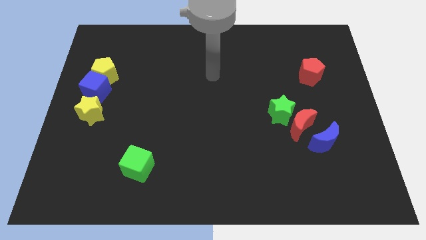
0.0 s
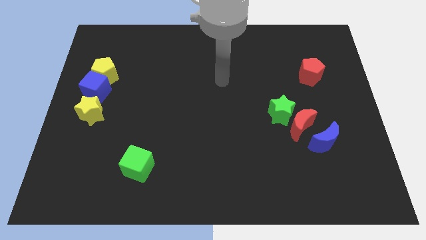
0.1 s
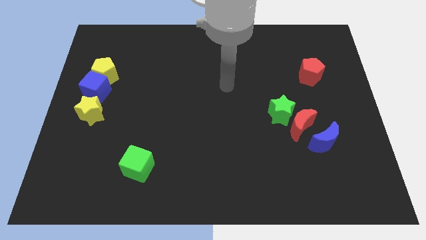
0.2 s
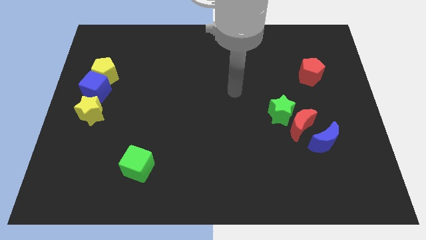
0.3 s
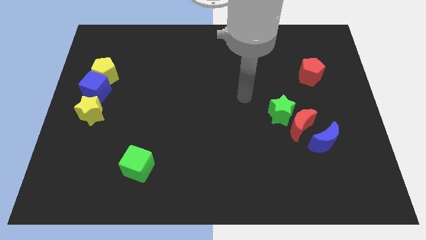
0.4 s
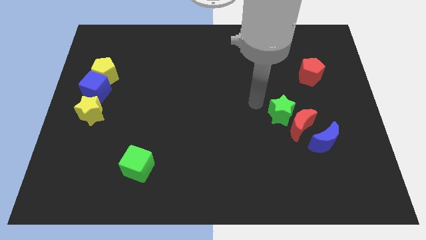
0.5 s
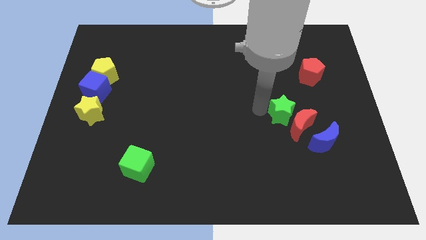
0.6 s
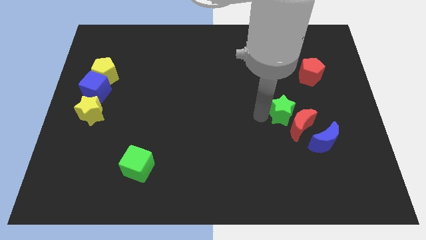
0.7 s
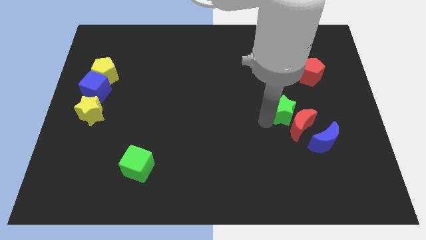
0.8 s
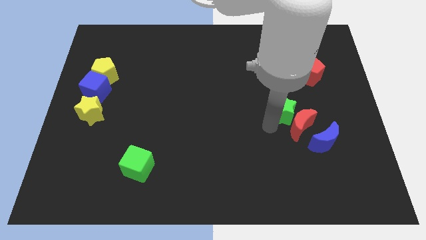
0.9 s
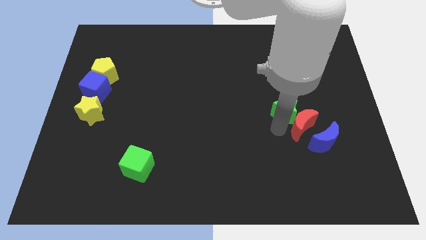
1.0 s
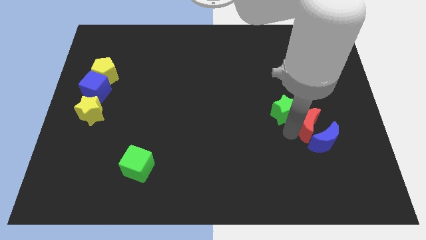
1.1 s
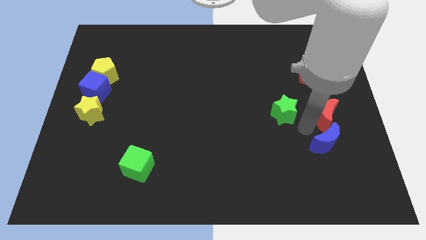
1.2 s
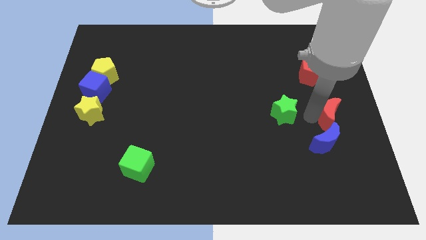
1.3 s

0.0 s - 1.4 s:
separate the green star from the red moon

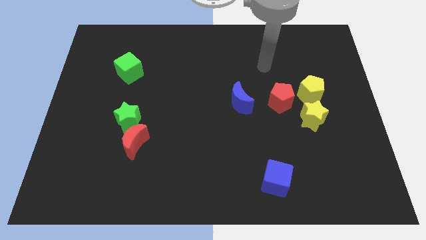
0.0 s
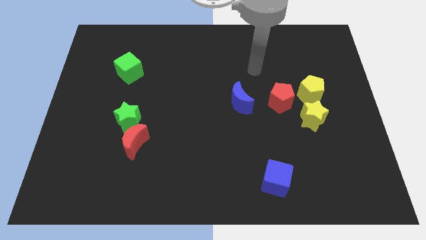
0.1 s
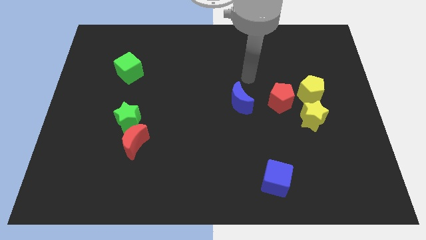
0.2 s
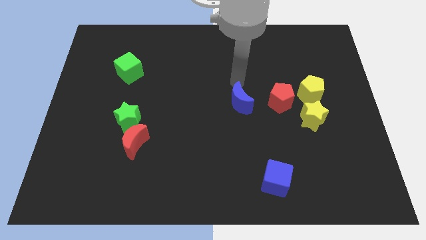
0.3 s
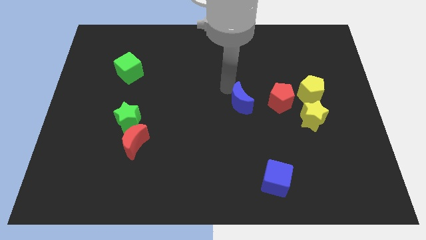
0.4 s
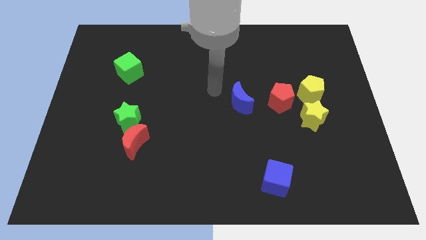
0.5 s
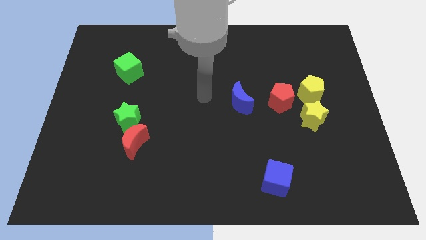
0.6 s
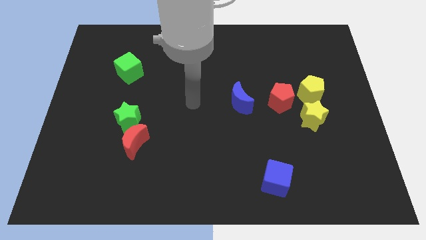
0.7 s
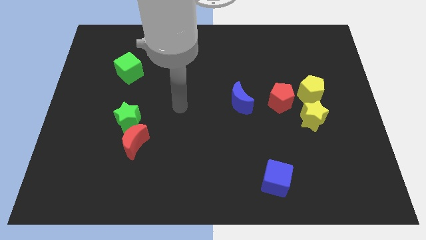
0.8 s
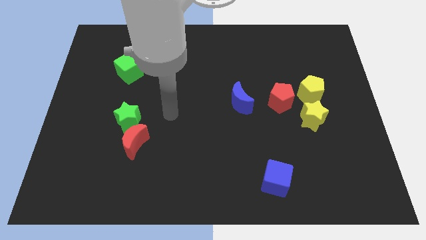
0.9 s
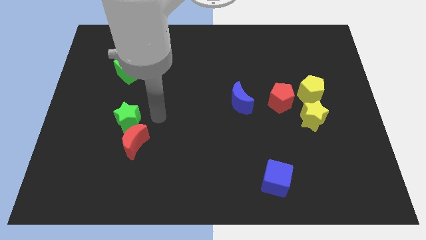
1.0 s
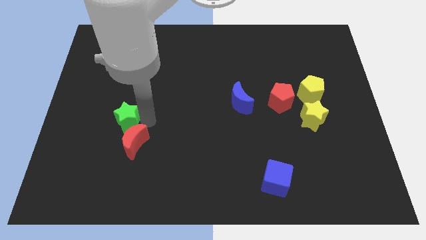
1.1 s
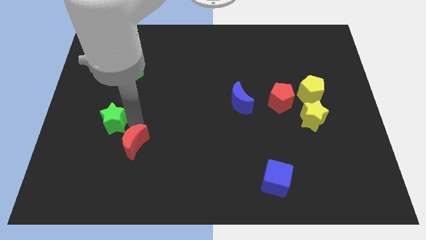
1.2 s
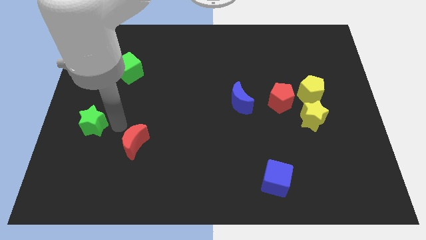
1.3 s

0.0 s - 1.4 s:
pull the red moon apart from the green star

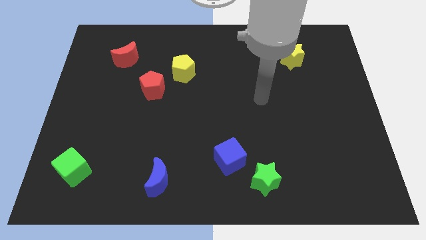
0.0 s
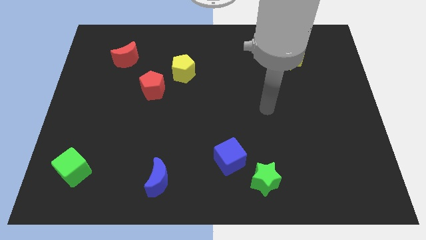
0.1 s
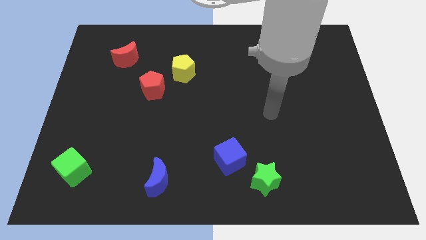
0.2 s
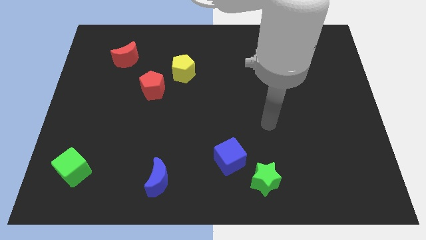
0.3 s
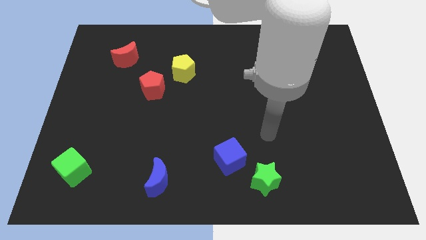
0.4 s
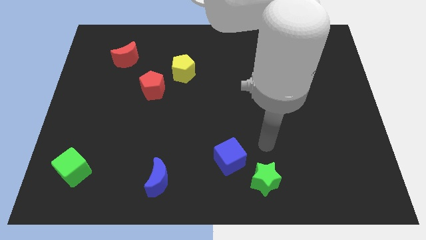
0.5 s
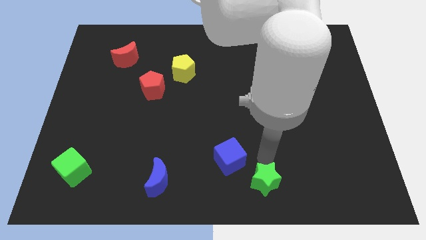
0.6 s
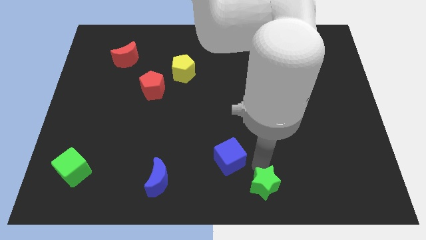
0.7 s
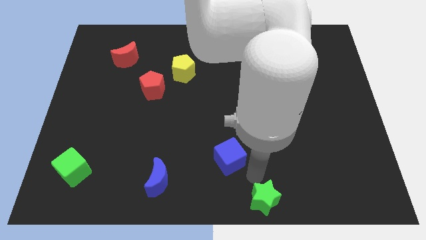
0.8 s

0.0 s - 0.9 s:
move the blue cube away from the green star

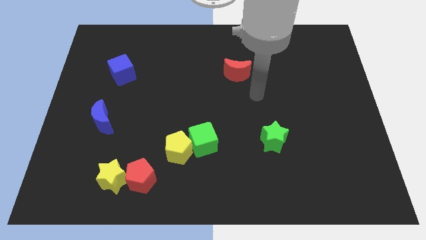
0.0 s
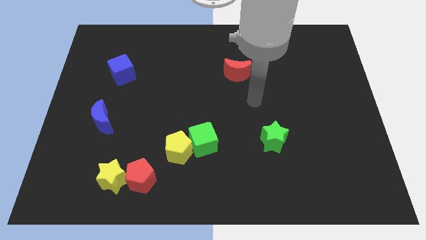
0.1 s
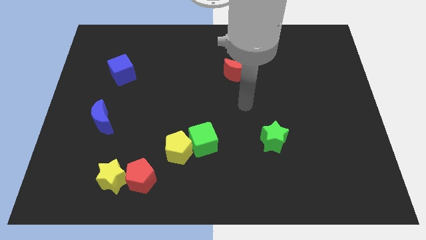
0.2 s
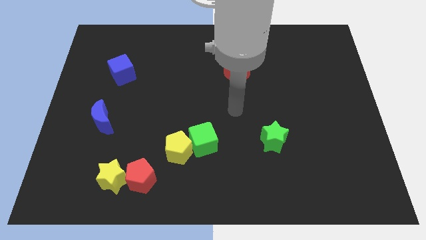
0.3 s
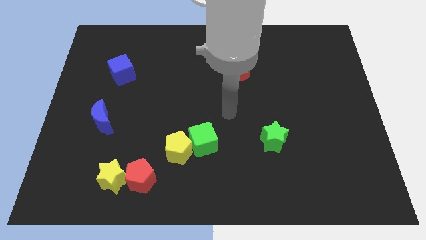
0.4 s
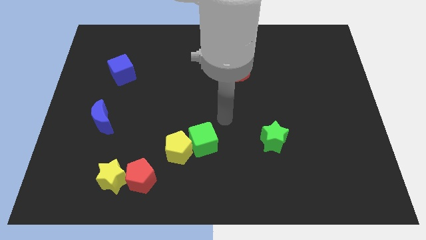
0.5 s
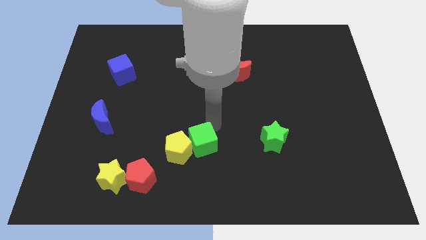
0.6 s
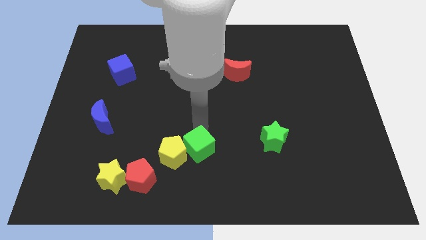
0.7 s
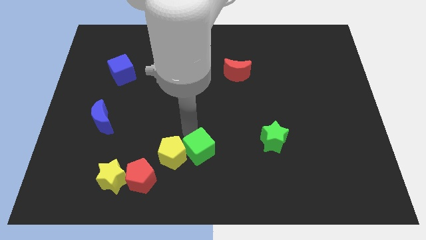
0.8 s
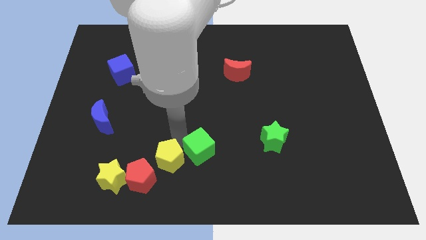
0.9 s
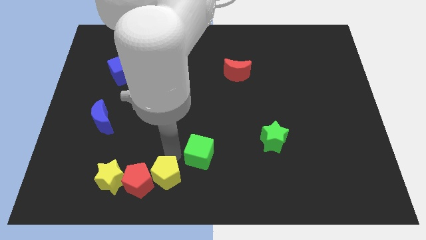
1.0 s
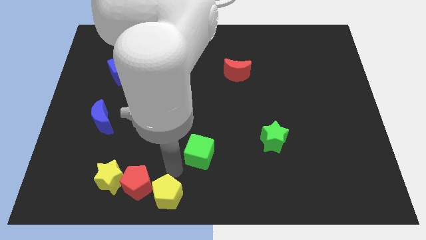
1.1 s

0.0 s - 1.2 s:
separate the green cube from the yellow pentagon

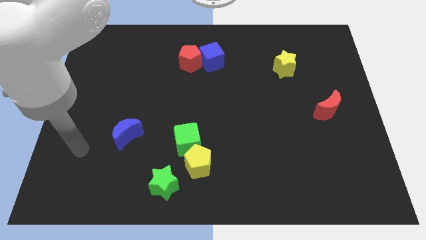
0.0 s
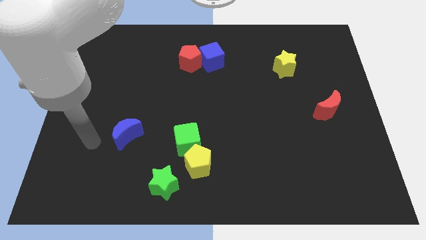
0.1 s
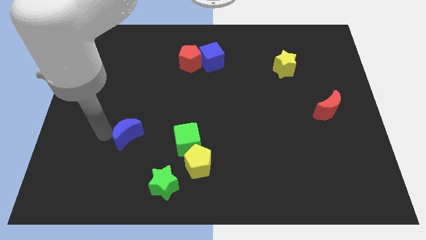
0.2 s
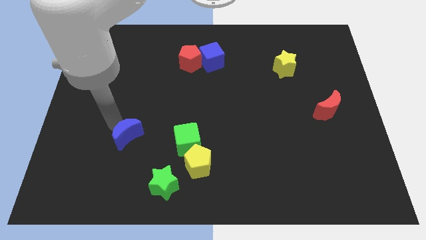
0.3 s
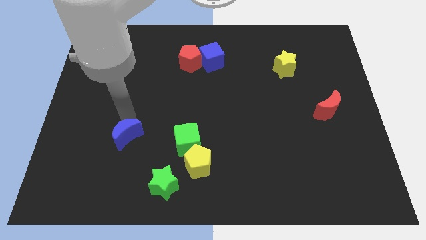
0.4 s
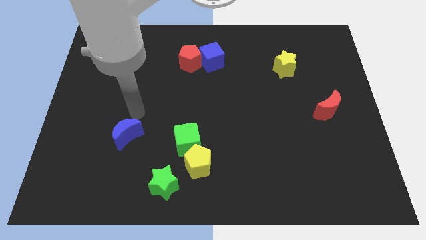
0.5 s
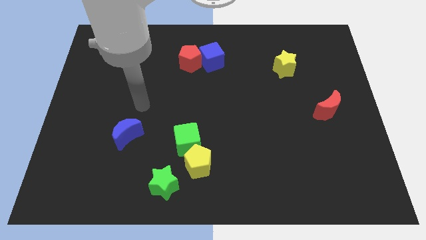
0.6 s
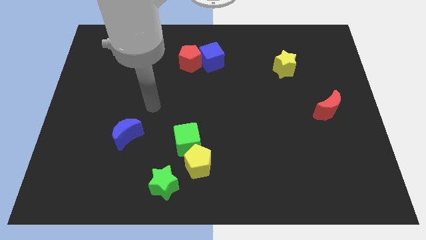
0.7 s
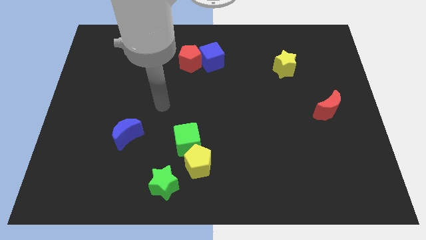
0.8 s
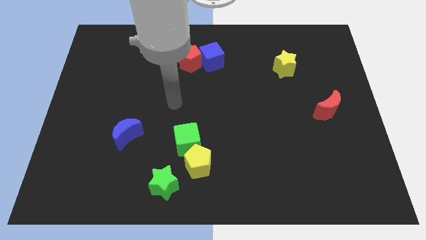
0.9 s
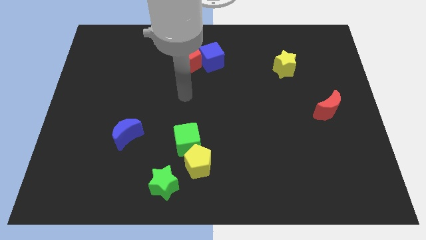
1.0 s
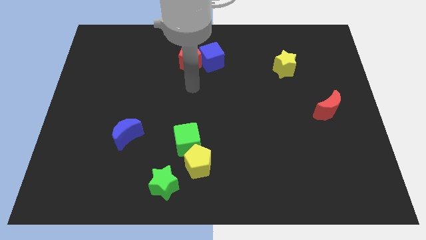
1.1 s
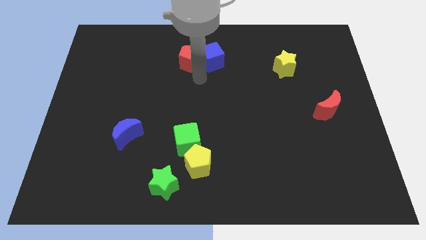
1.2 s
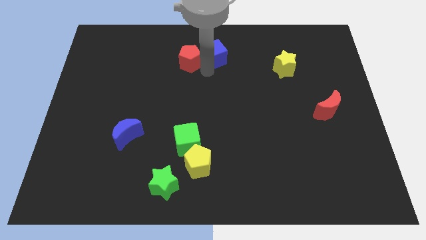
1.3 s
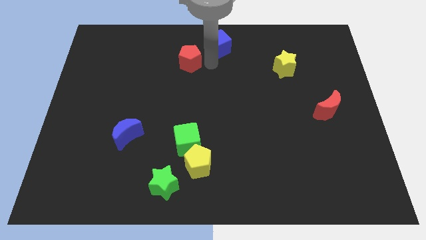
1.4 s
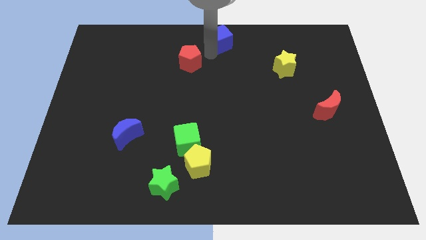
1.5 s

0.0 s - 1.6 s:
pull the red pentagon apart from the blue cube

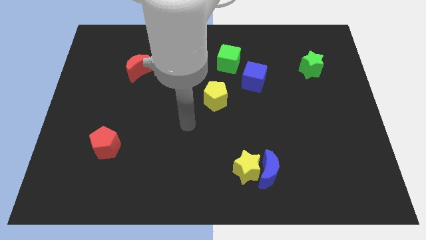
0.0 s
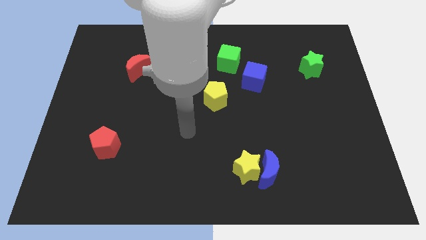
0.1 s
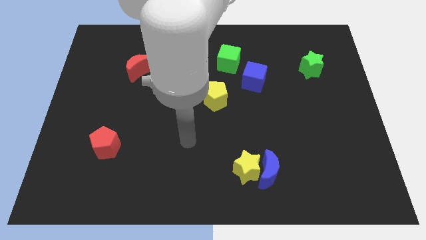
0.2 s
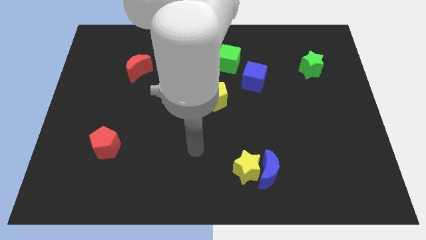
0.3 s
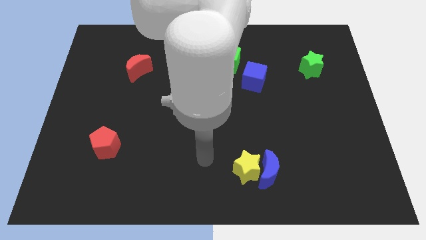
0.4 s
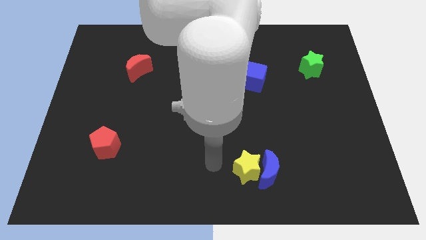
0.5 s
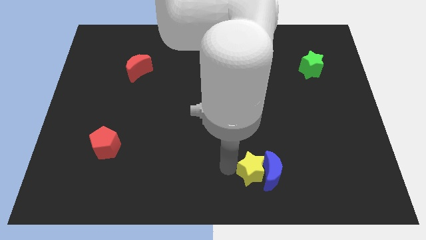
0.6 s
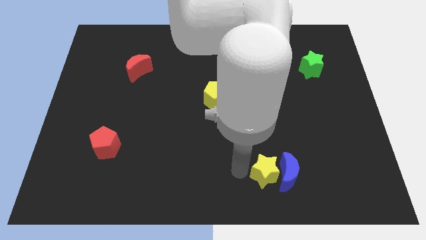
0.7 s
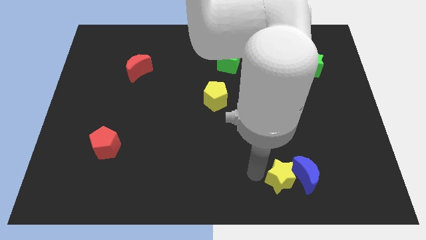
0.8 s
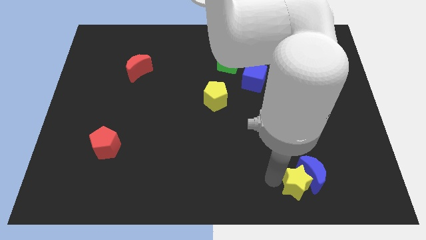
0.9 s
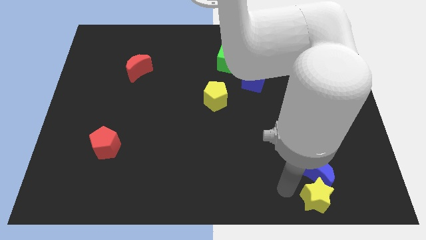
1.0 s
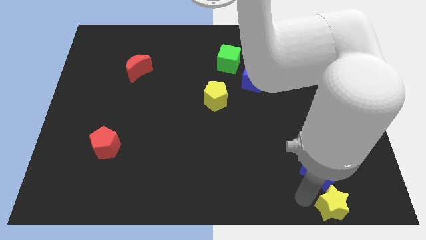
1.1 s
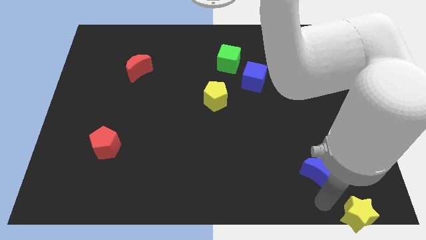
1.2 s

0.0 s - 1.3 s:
pull the blue moon apart from the yellow star

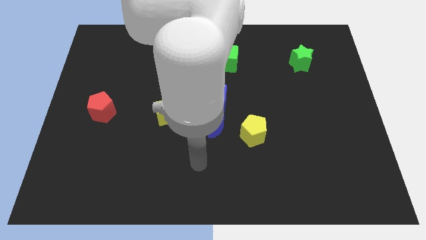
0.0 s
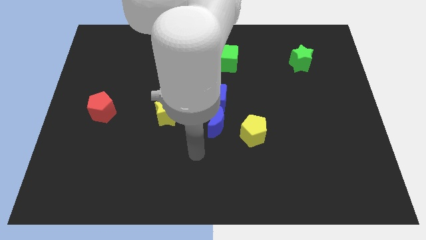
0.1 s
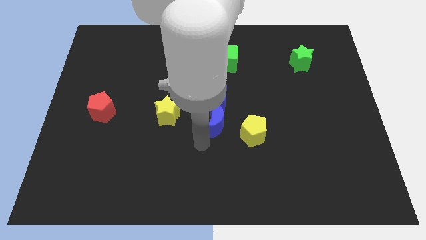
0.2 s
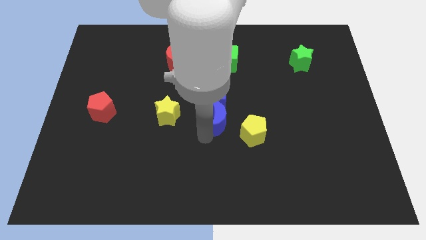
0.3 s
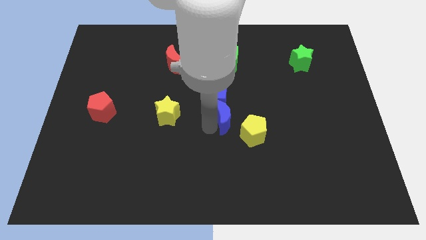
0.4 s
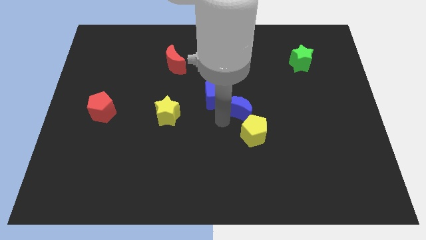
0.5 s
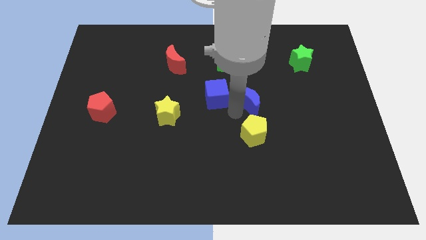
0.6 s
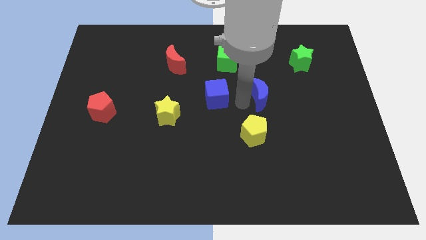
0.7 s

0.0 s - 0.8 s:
move the blue cube away from the blue moon

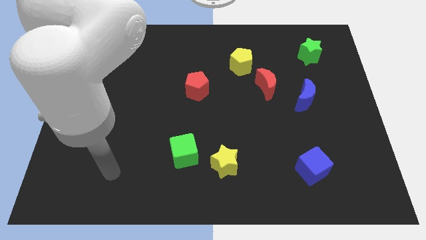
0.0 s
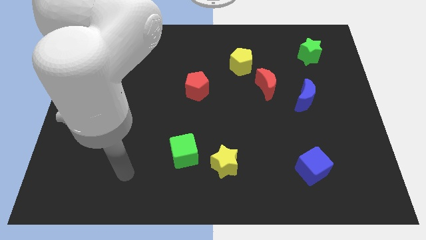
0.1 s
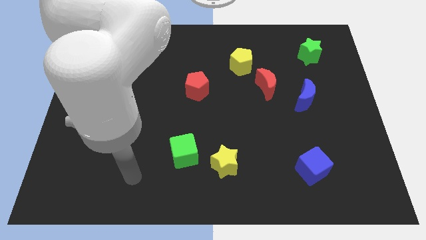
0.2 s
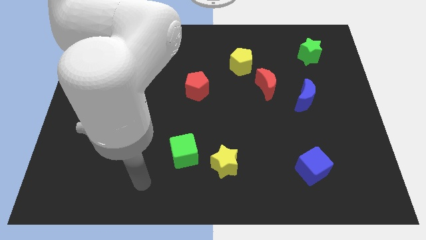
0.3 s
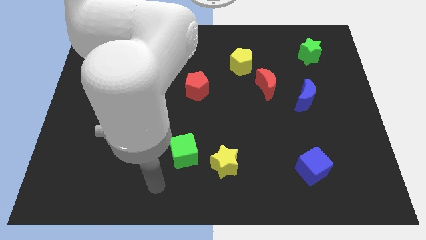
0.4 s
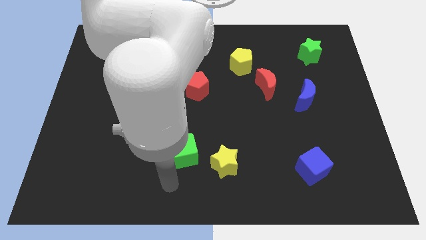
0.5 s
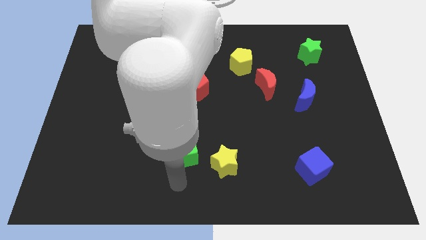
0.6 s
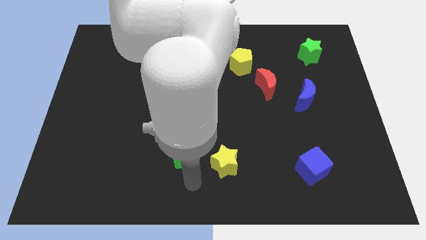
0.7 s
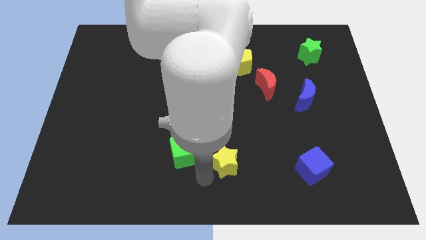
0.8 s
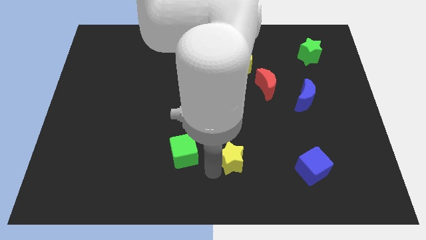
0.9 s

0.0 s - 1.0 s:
pull the green cube apart from the yellow star
